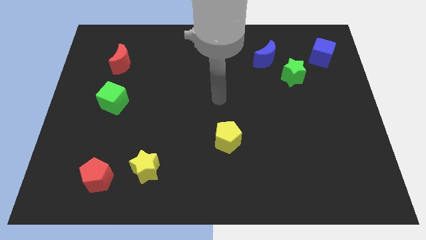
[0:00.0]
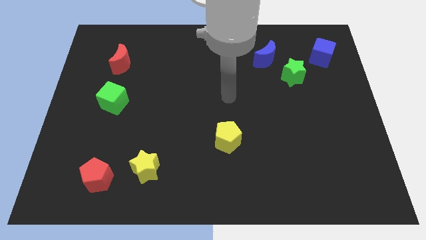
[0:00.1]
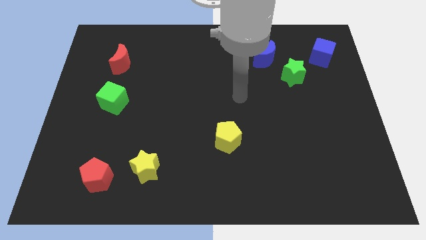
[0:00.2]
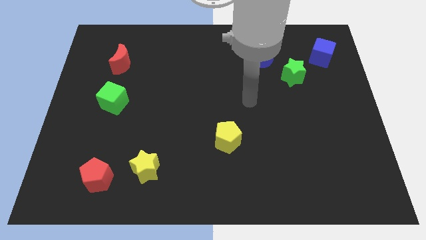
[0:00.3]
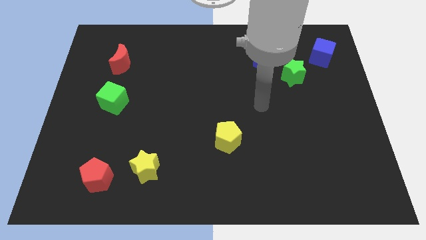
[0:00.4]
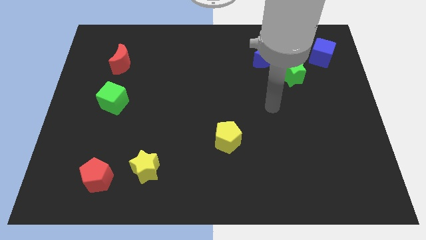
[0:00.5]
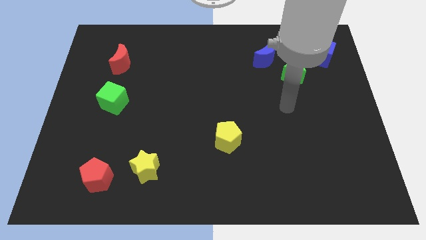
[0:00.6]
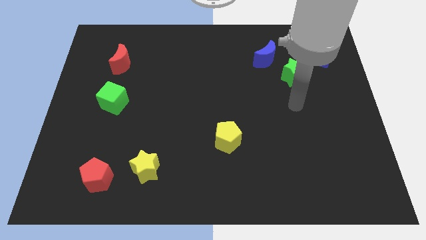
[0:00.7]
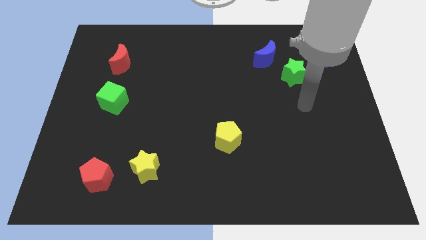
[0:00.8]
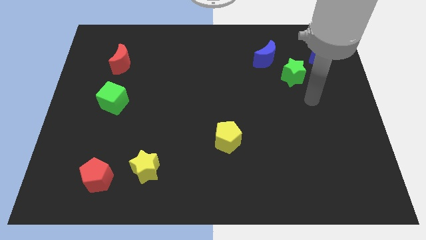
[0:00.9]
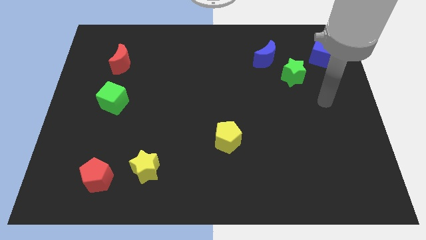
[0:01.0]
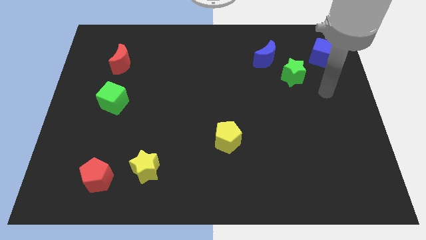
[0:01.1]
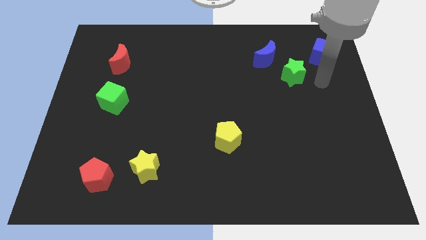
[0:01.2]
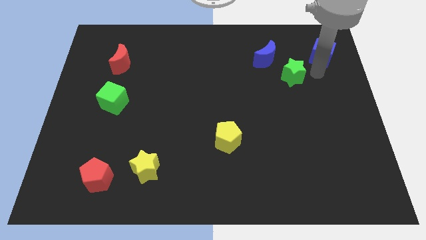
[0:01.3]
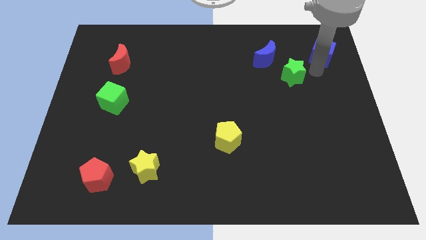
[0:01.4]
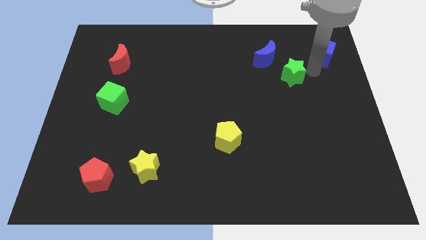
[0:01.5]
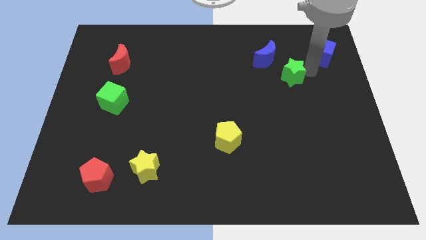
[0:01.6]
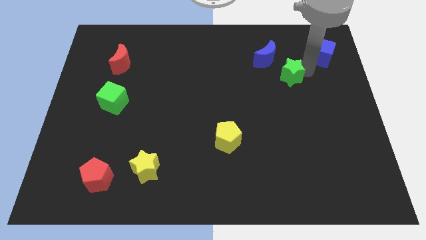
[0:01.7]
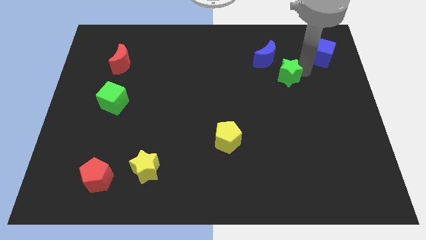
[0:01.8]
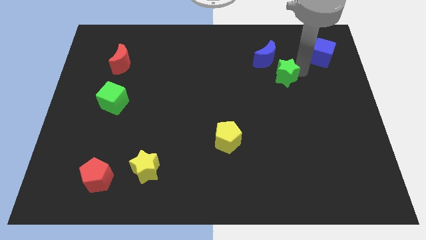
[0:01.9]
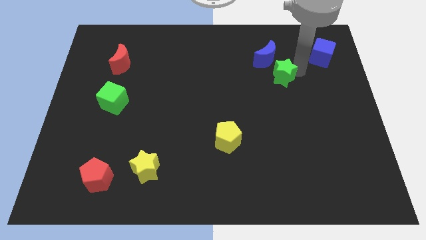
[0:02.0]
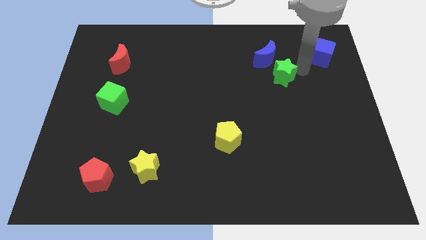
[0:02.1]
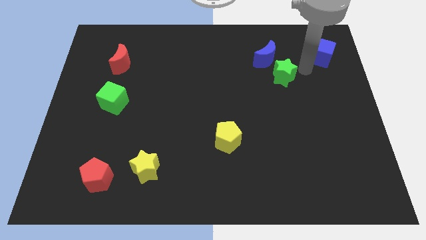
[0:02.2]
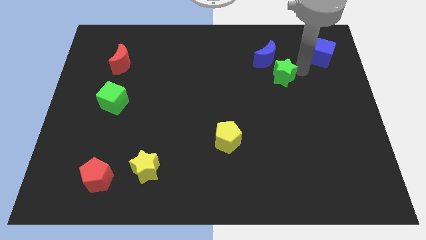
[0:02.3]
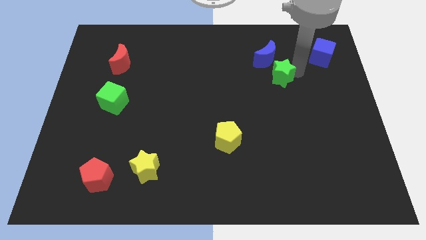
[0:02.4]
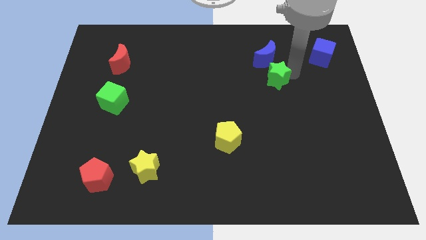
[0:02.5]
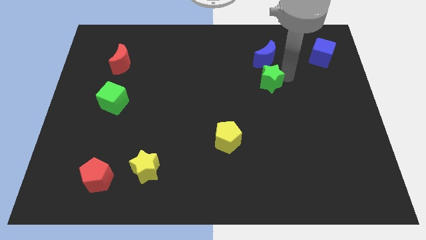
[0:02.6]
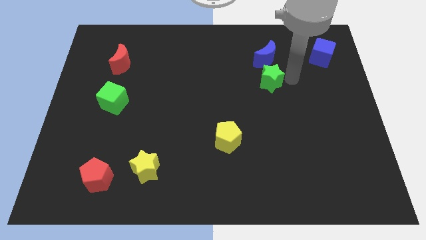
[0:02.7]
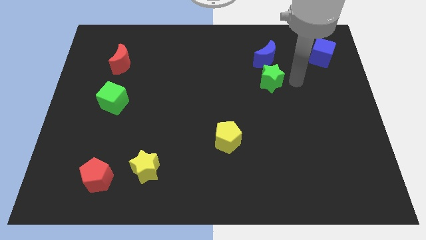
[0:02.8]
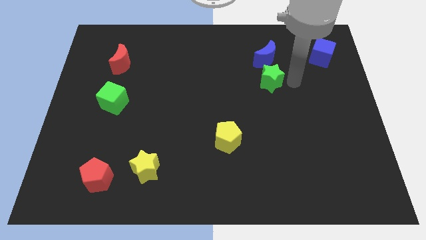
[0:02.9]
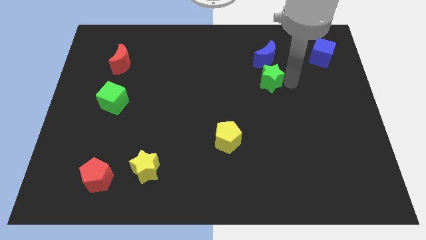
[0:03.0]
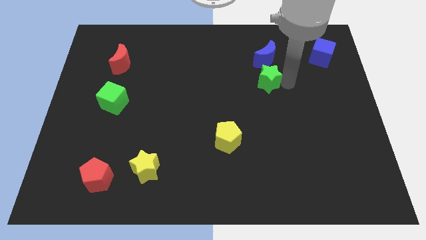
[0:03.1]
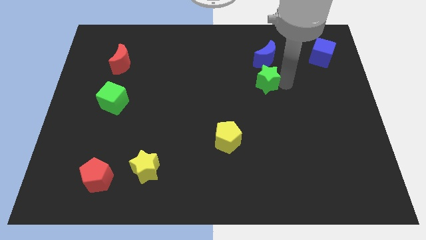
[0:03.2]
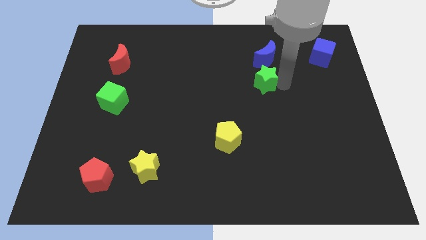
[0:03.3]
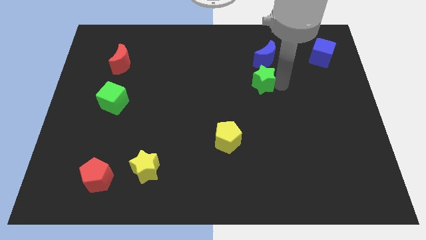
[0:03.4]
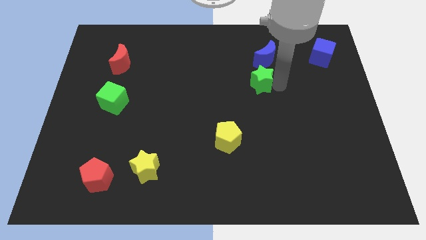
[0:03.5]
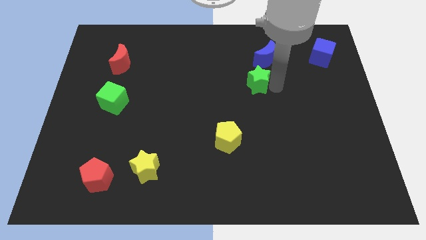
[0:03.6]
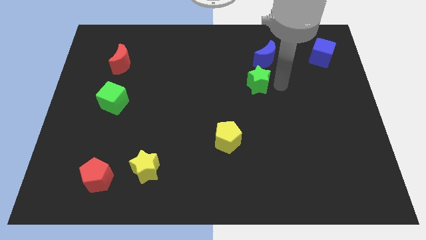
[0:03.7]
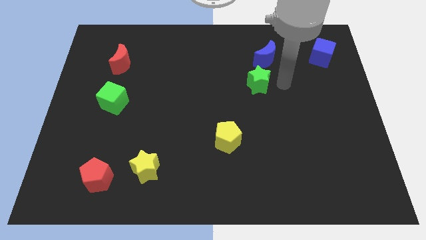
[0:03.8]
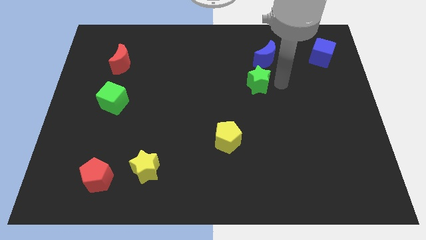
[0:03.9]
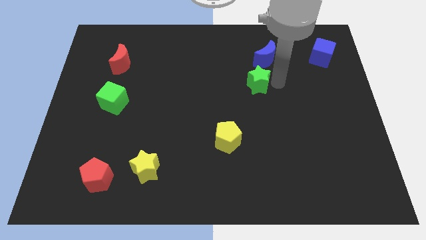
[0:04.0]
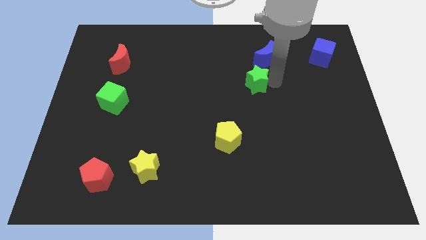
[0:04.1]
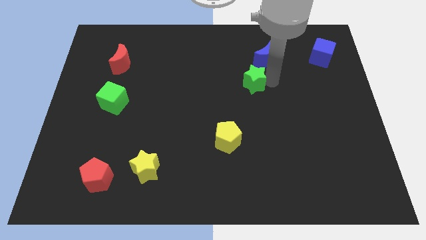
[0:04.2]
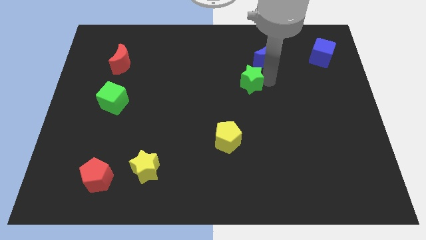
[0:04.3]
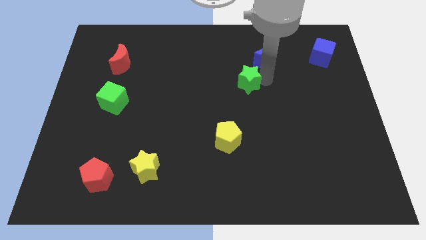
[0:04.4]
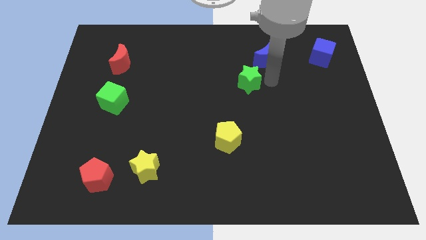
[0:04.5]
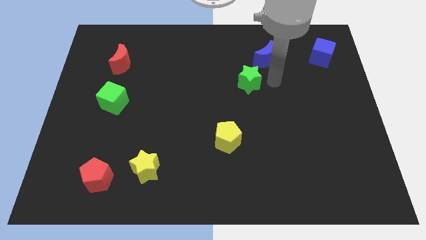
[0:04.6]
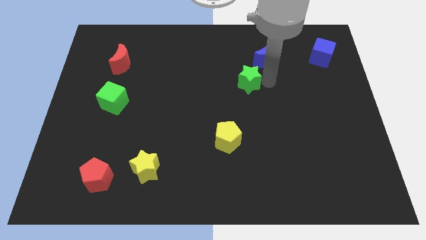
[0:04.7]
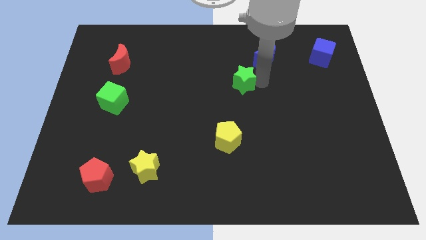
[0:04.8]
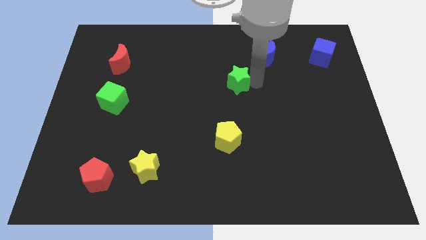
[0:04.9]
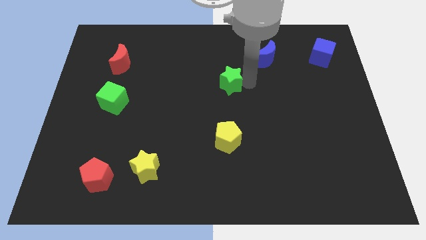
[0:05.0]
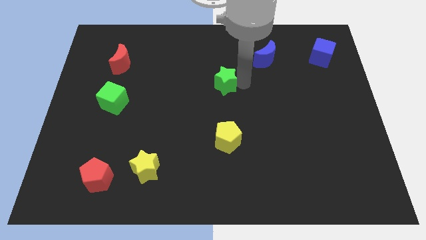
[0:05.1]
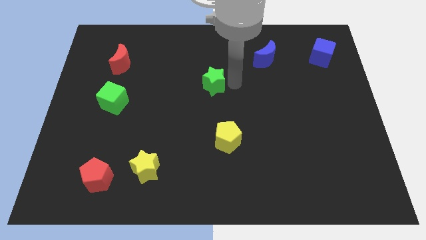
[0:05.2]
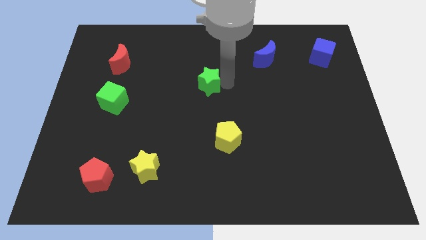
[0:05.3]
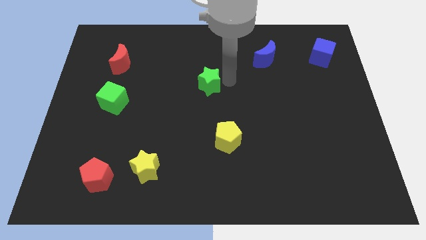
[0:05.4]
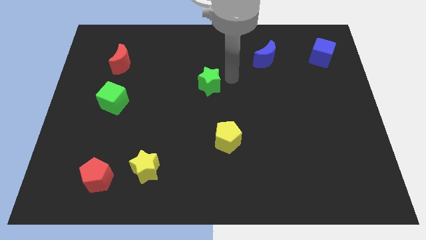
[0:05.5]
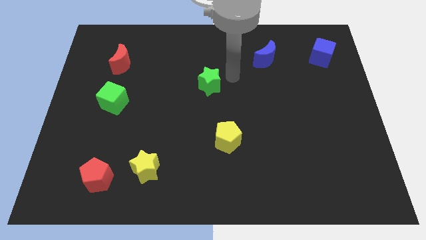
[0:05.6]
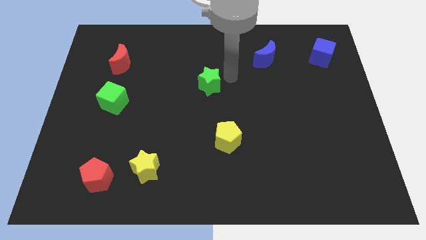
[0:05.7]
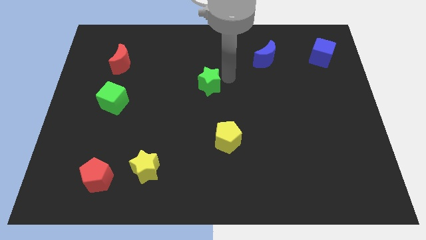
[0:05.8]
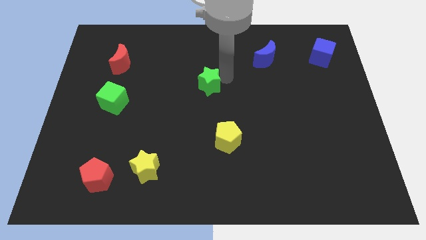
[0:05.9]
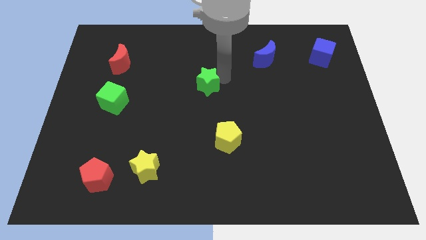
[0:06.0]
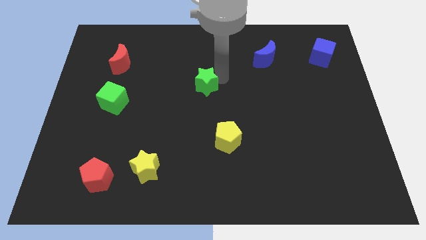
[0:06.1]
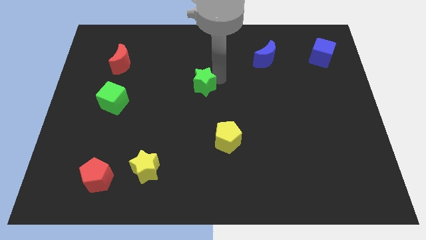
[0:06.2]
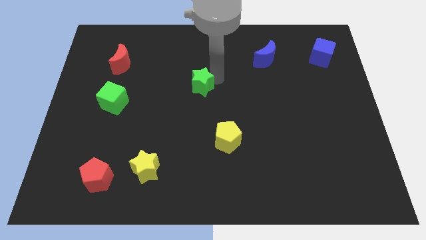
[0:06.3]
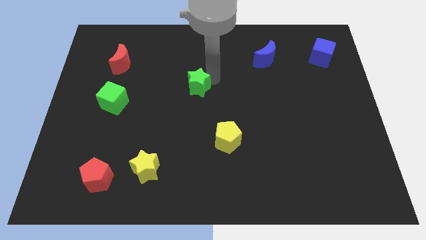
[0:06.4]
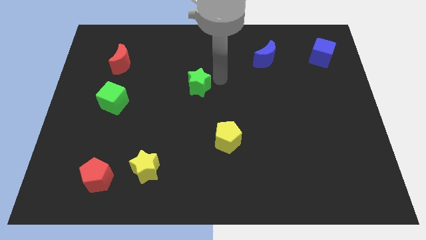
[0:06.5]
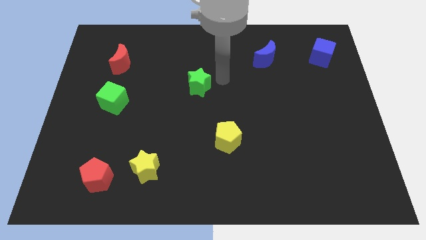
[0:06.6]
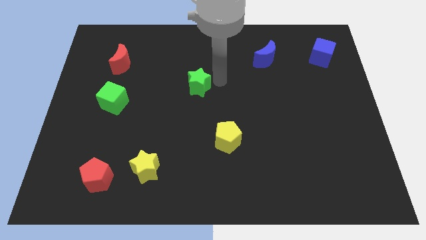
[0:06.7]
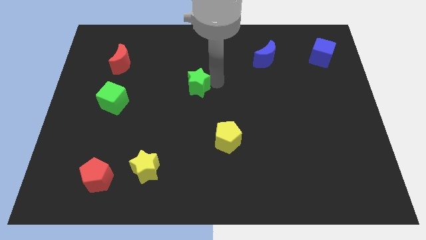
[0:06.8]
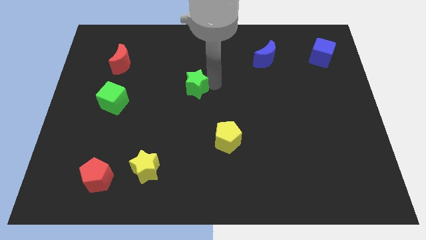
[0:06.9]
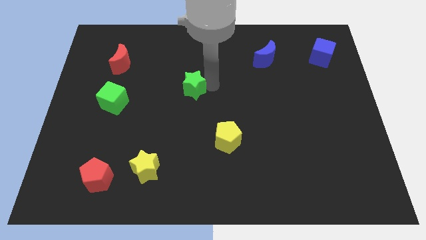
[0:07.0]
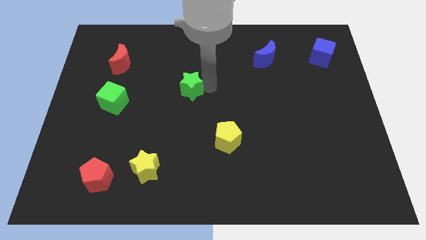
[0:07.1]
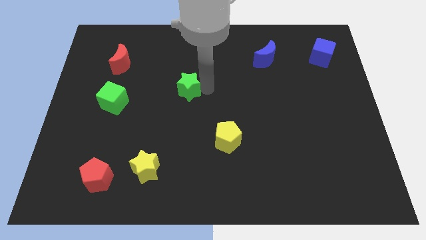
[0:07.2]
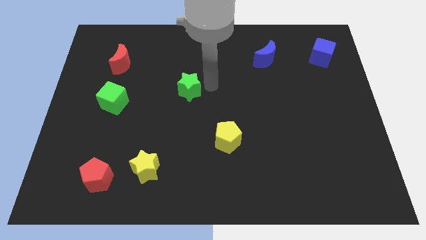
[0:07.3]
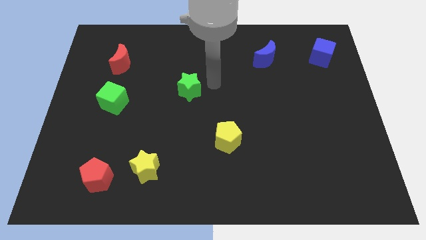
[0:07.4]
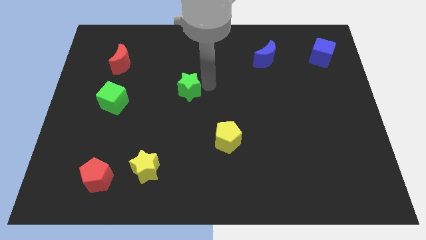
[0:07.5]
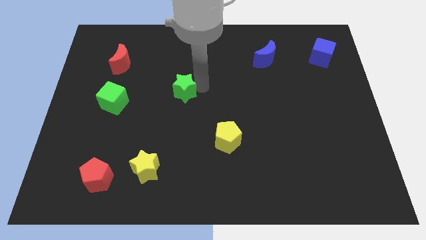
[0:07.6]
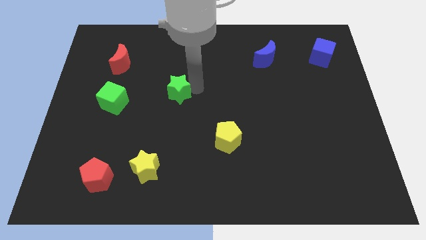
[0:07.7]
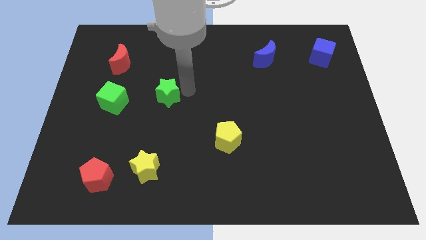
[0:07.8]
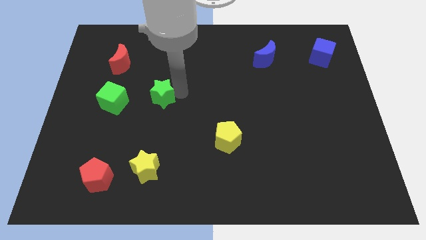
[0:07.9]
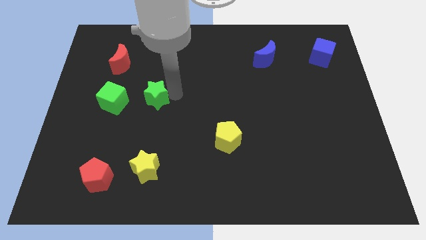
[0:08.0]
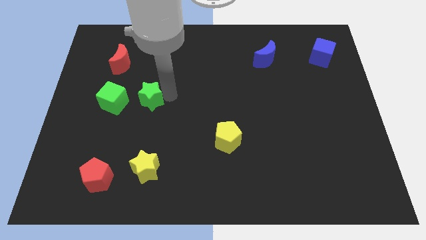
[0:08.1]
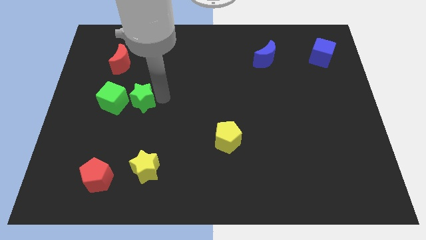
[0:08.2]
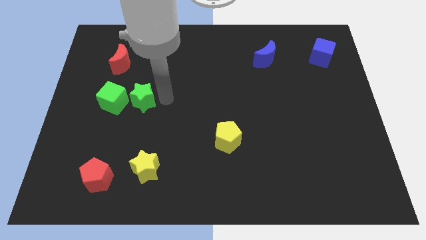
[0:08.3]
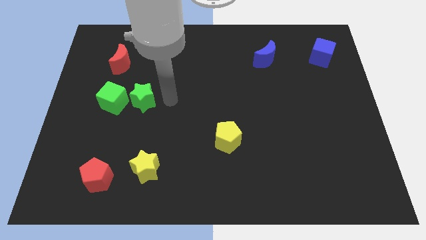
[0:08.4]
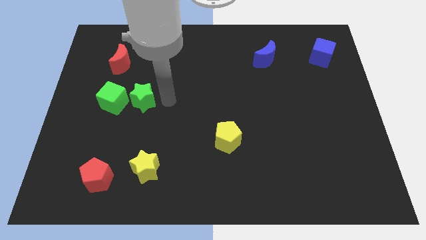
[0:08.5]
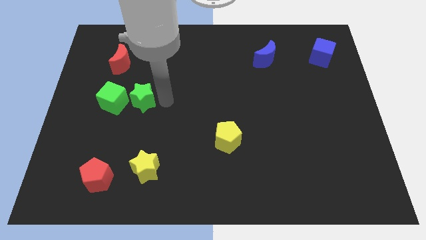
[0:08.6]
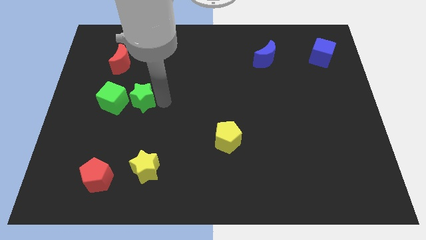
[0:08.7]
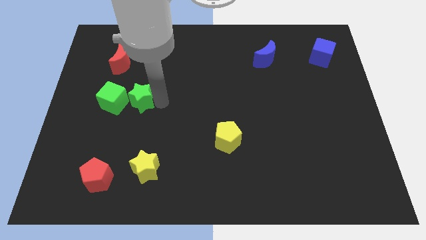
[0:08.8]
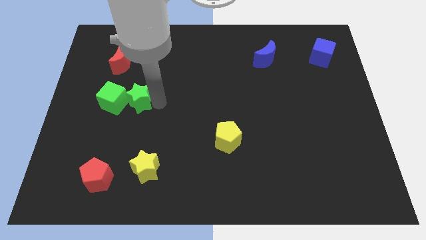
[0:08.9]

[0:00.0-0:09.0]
move the green star next to the green cube
